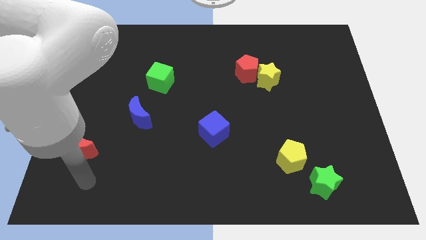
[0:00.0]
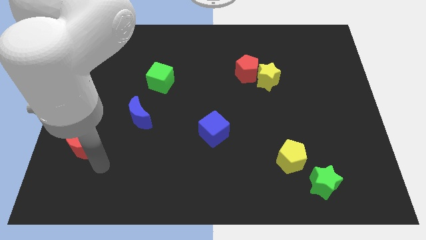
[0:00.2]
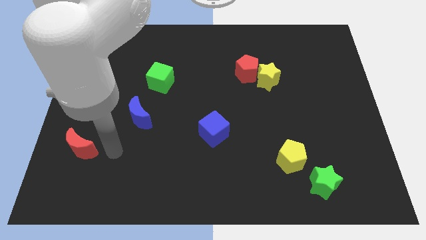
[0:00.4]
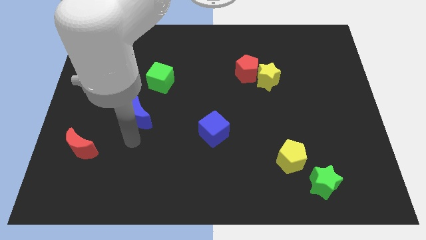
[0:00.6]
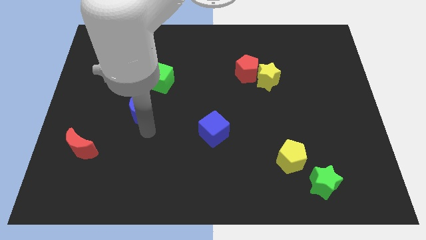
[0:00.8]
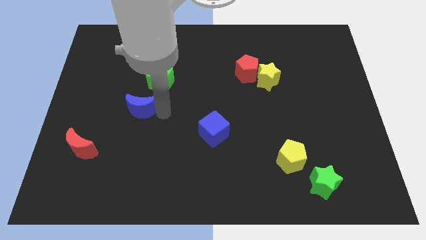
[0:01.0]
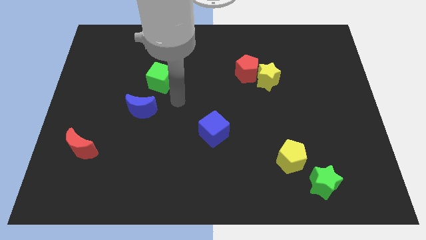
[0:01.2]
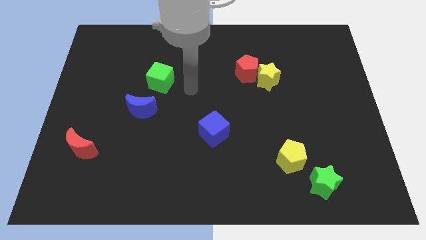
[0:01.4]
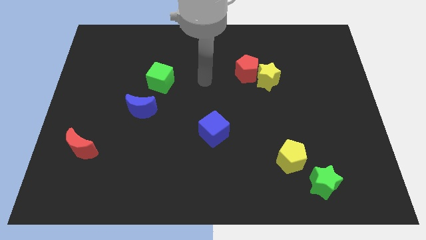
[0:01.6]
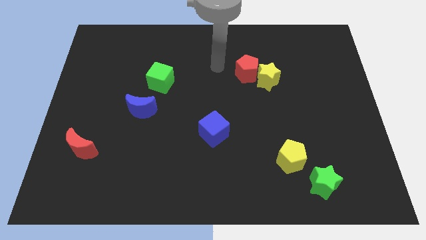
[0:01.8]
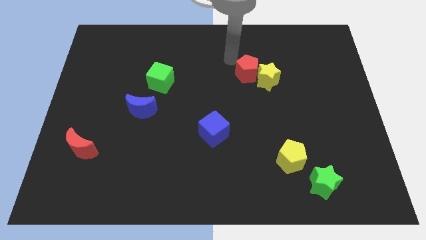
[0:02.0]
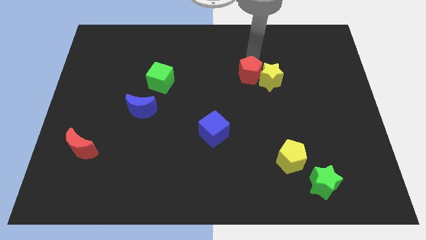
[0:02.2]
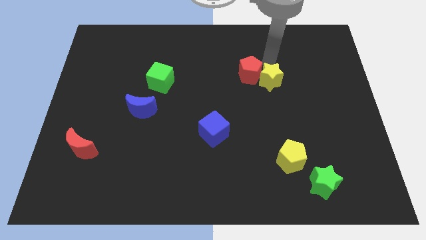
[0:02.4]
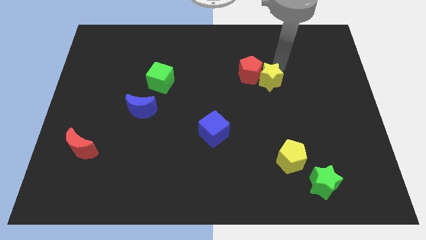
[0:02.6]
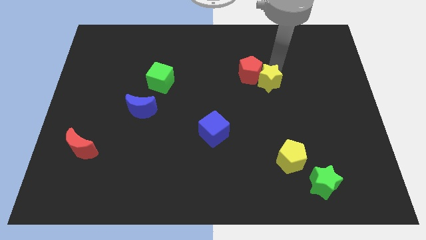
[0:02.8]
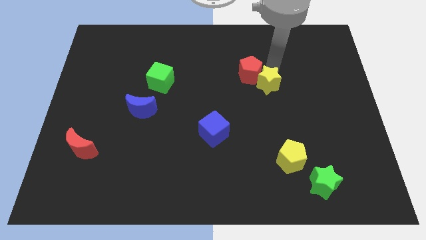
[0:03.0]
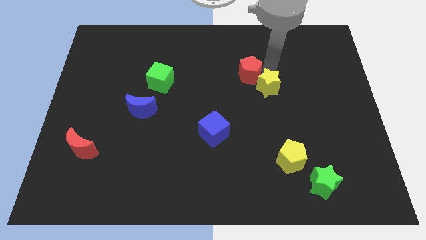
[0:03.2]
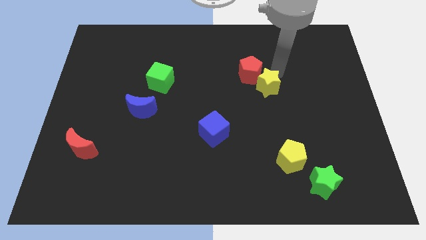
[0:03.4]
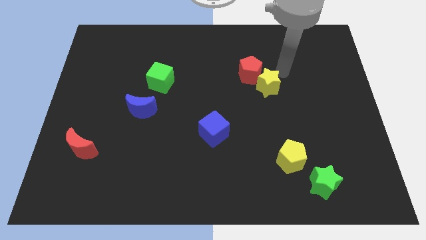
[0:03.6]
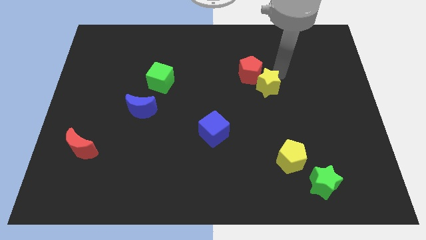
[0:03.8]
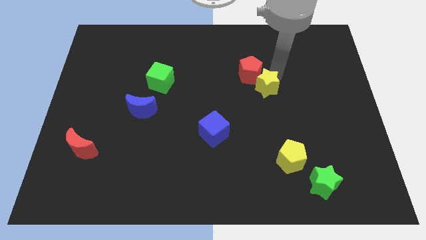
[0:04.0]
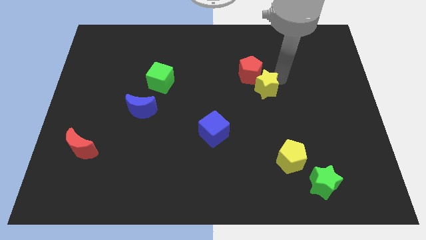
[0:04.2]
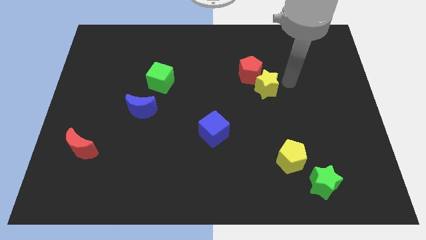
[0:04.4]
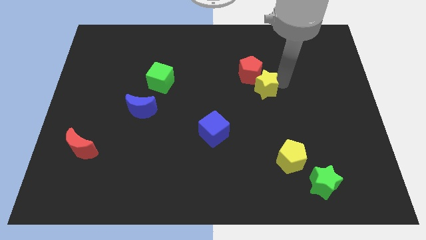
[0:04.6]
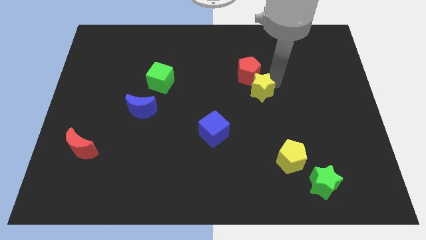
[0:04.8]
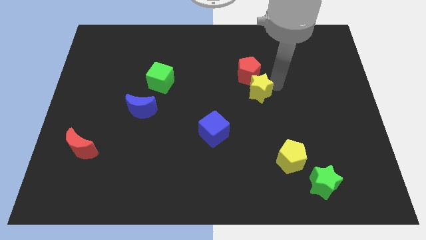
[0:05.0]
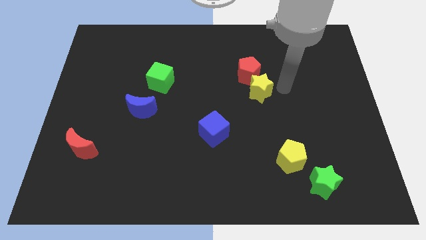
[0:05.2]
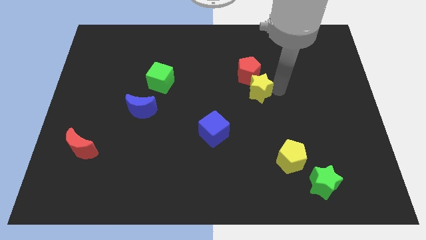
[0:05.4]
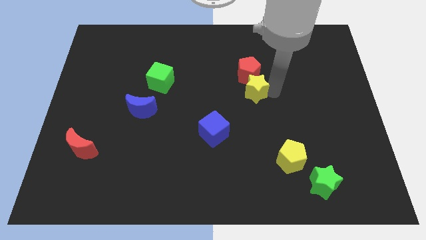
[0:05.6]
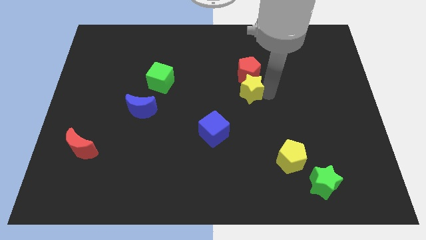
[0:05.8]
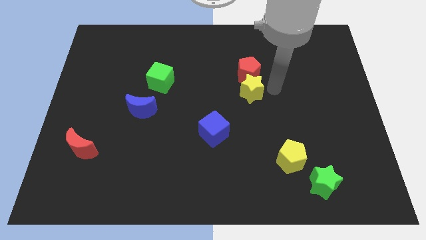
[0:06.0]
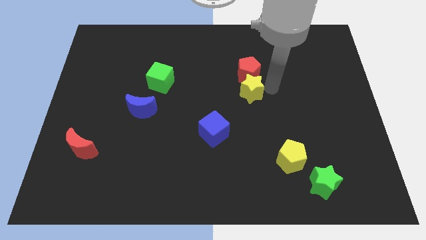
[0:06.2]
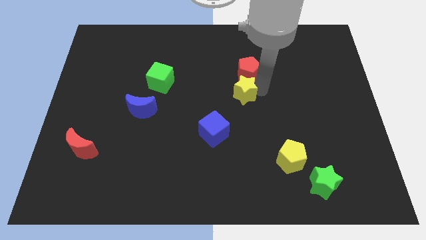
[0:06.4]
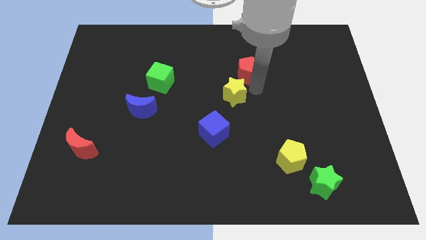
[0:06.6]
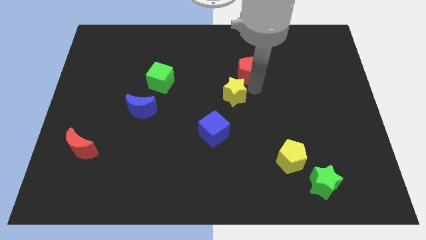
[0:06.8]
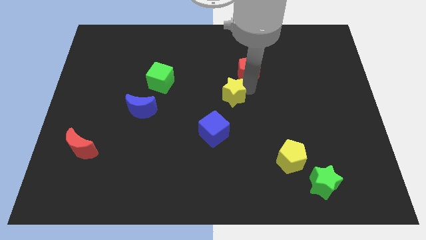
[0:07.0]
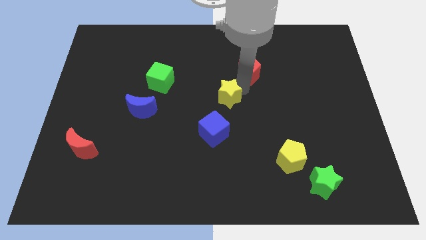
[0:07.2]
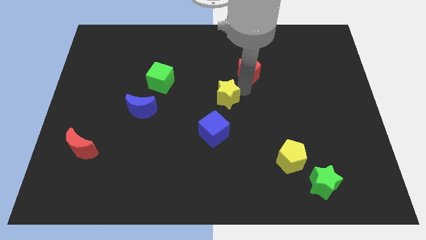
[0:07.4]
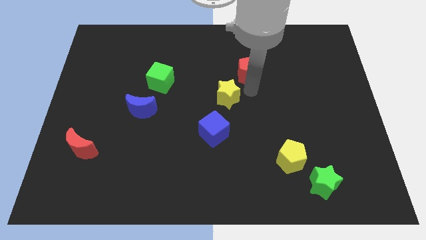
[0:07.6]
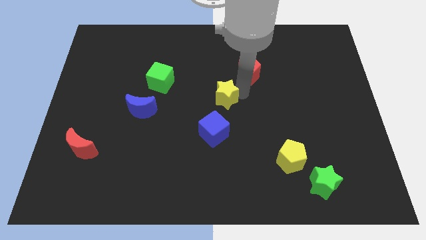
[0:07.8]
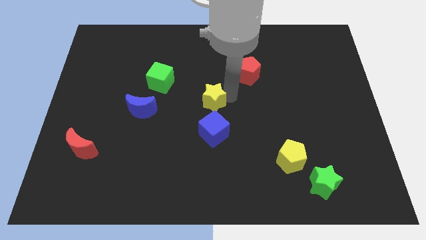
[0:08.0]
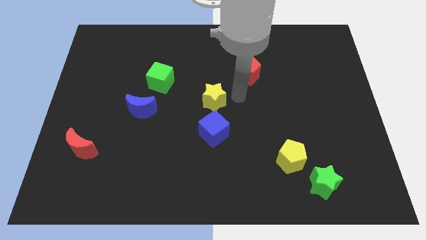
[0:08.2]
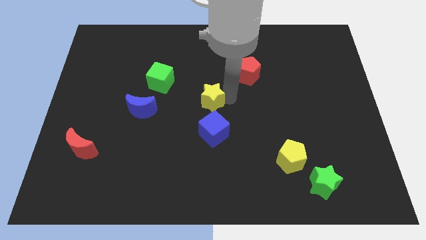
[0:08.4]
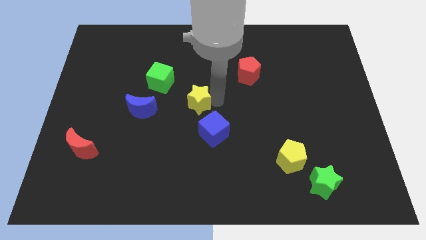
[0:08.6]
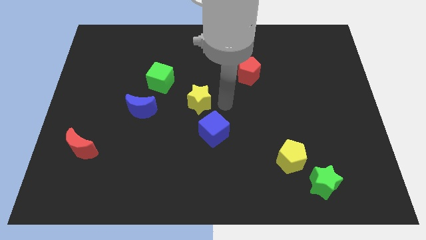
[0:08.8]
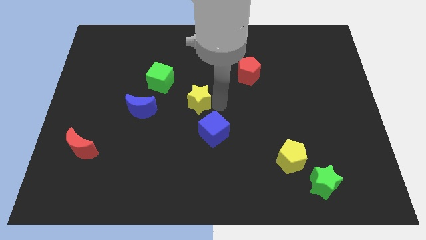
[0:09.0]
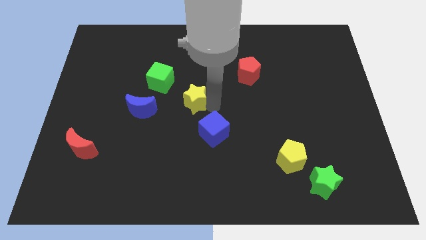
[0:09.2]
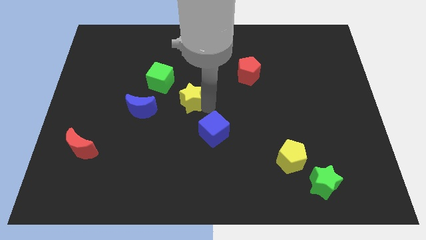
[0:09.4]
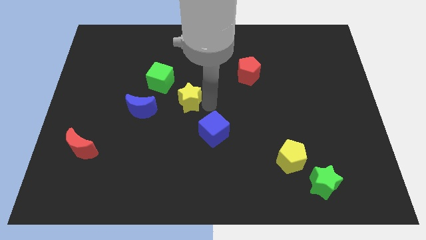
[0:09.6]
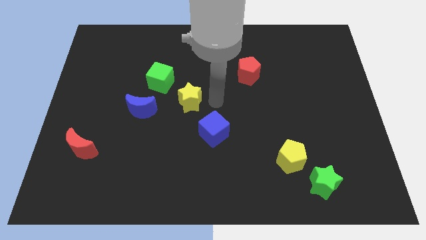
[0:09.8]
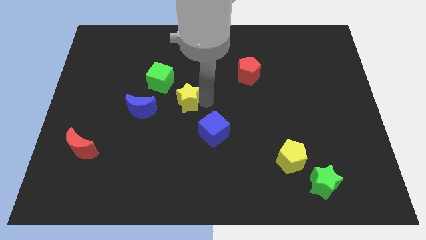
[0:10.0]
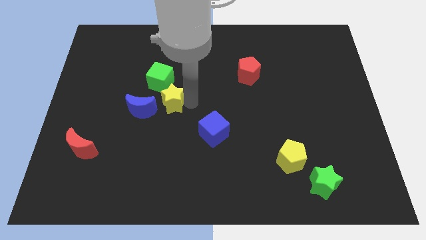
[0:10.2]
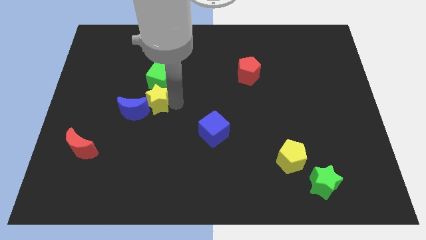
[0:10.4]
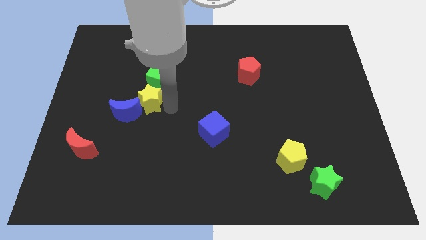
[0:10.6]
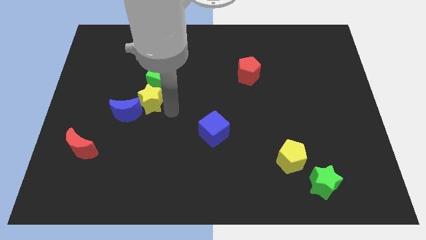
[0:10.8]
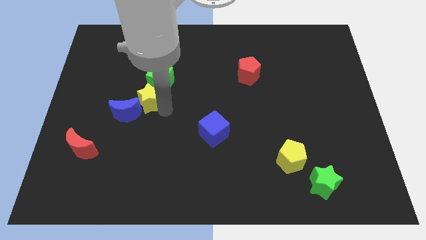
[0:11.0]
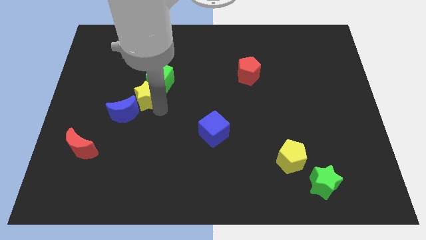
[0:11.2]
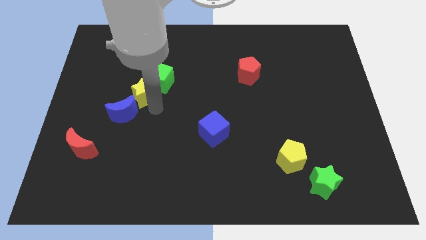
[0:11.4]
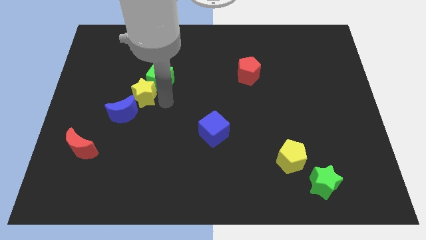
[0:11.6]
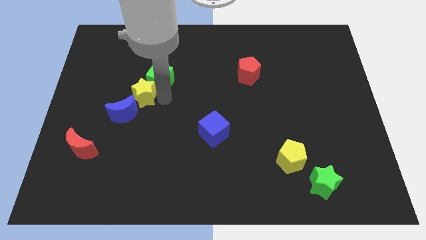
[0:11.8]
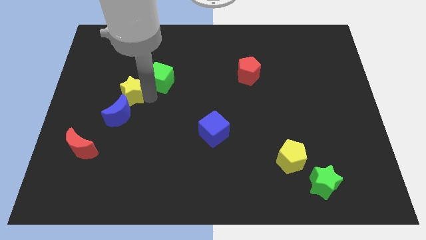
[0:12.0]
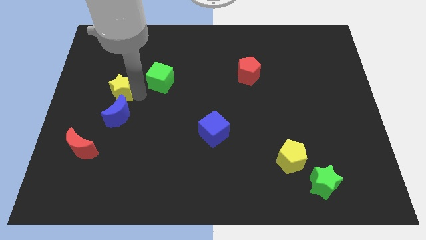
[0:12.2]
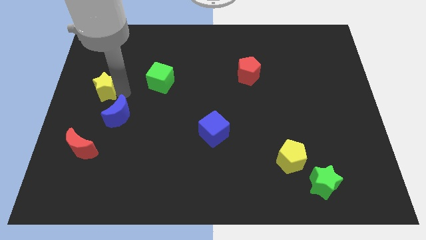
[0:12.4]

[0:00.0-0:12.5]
move the yellow star to the left side of the board
